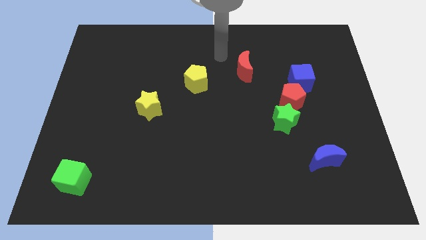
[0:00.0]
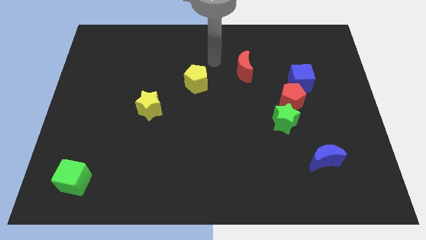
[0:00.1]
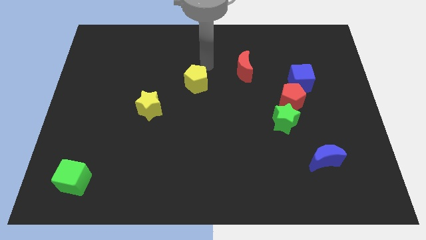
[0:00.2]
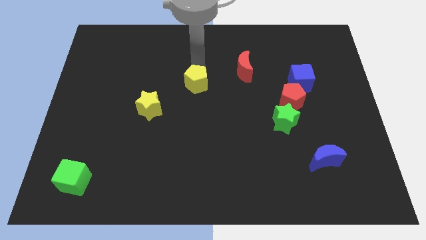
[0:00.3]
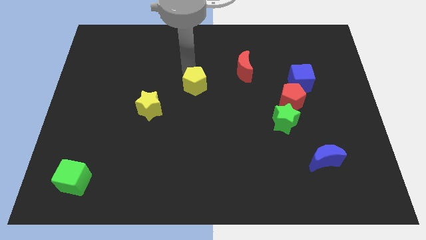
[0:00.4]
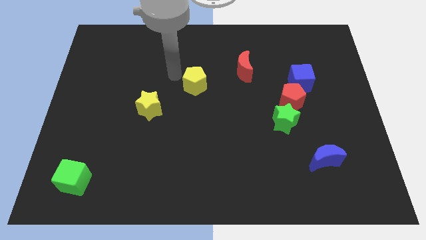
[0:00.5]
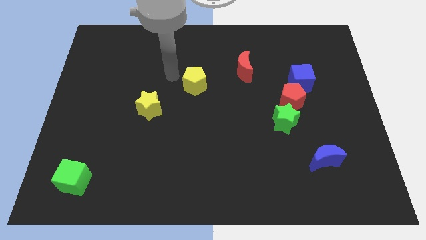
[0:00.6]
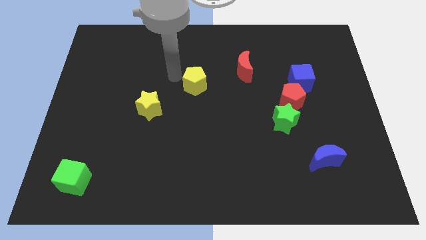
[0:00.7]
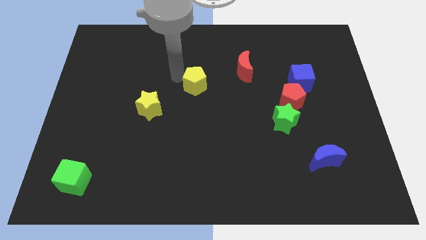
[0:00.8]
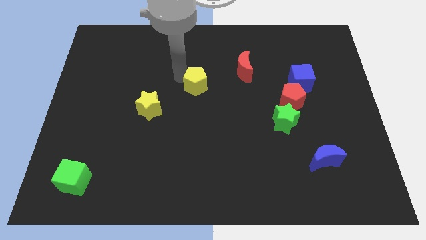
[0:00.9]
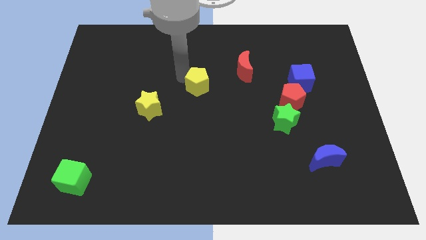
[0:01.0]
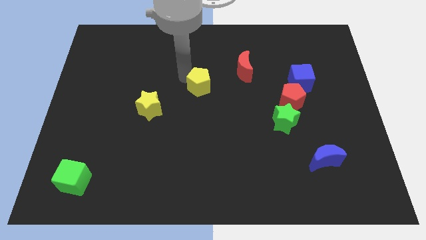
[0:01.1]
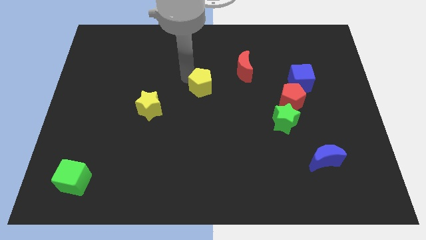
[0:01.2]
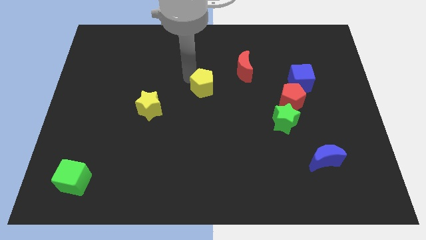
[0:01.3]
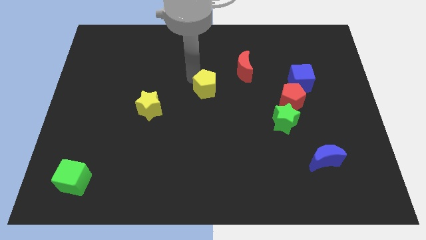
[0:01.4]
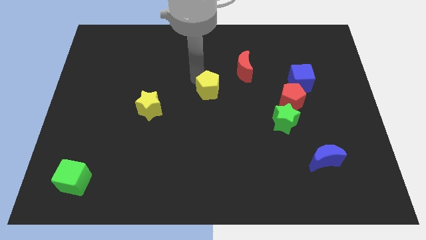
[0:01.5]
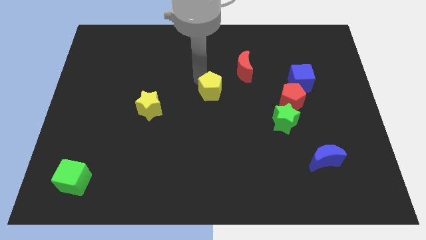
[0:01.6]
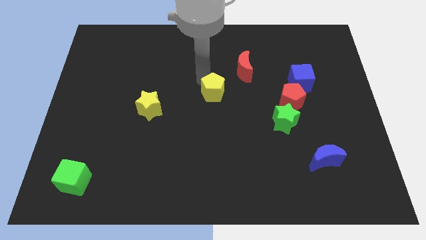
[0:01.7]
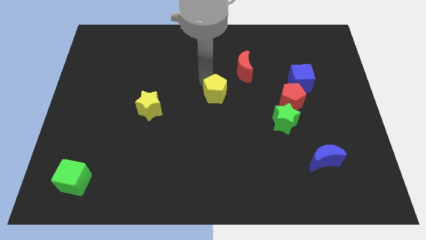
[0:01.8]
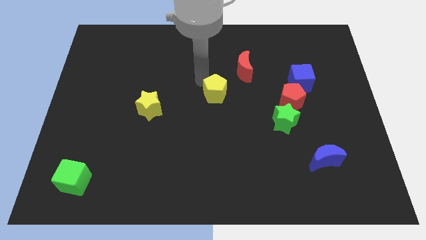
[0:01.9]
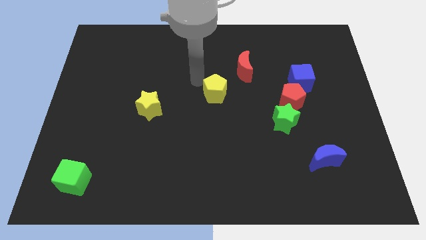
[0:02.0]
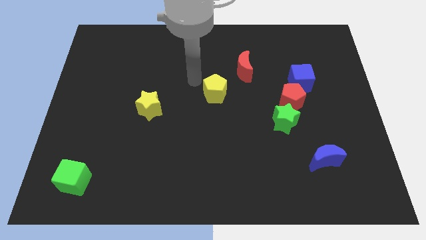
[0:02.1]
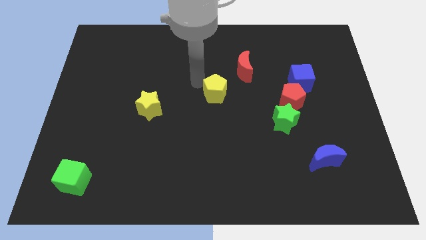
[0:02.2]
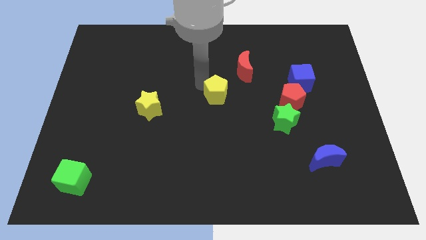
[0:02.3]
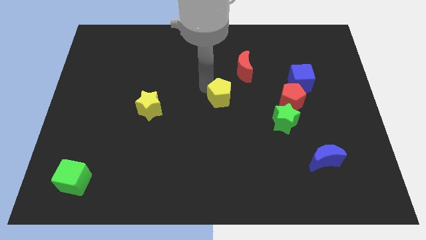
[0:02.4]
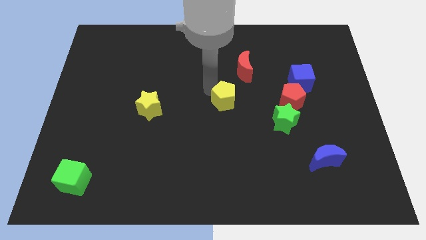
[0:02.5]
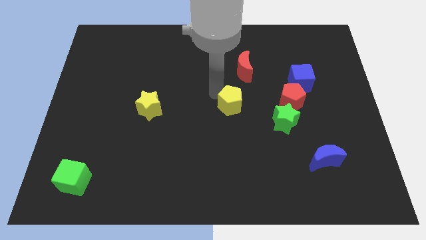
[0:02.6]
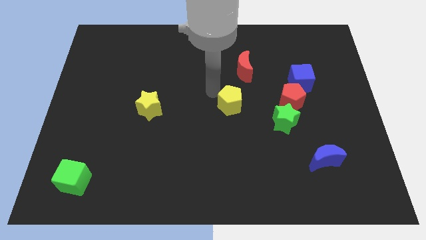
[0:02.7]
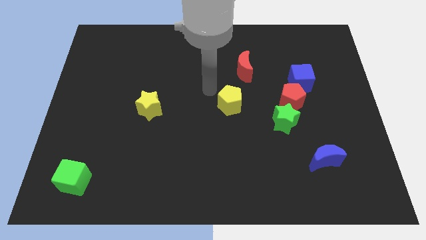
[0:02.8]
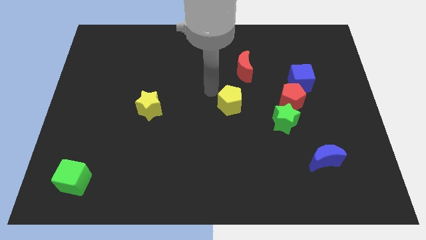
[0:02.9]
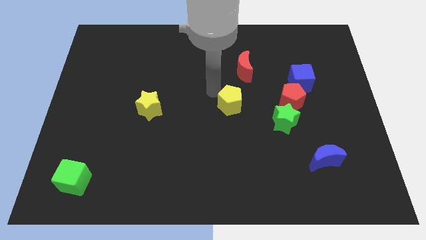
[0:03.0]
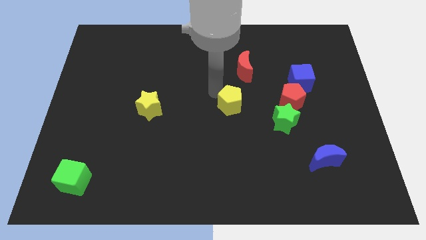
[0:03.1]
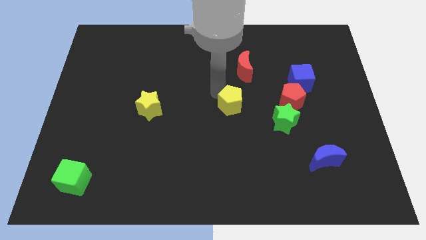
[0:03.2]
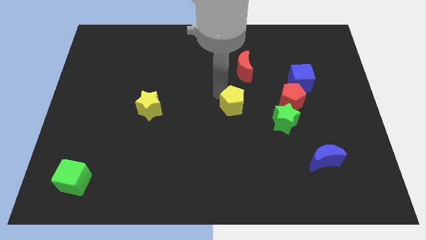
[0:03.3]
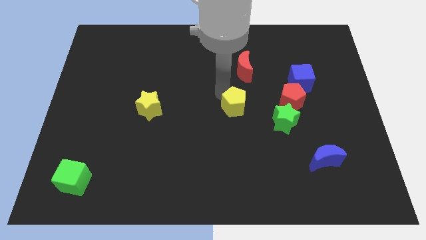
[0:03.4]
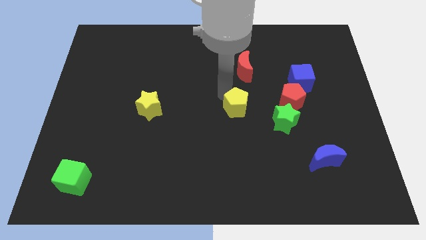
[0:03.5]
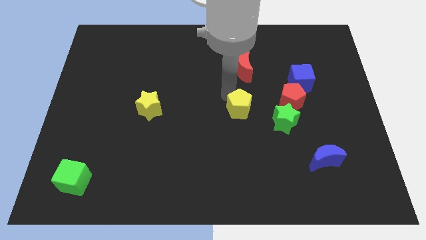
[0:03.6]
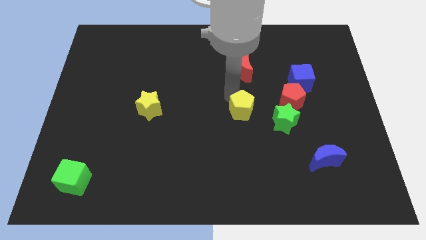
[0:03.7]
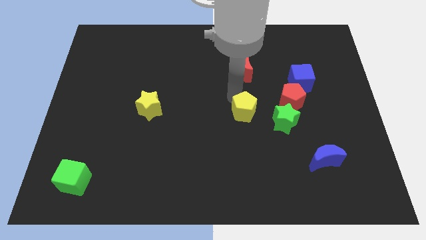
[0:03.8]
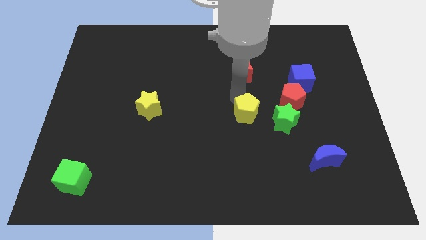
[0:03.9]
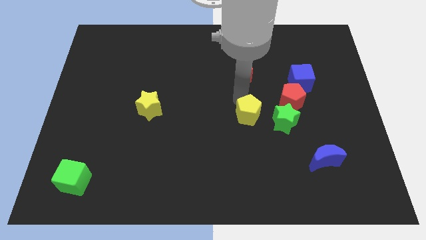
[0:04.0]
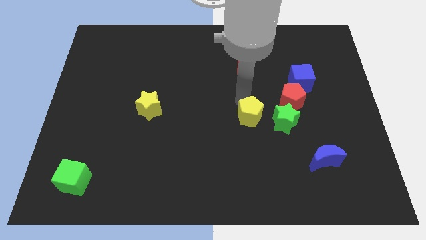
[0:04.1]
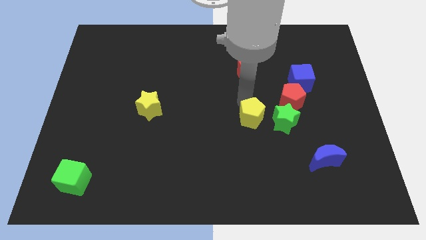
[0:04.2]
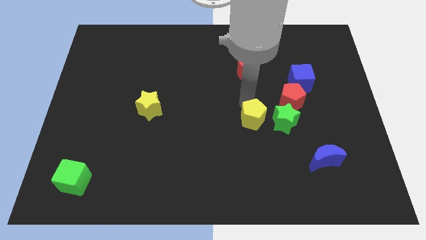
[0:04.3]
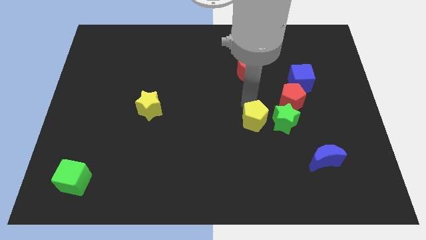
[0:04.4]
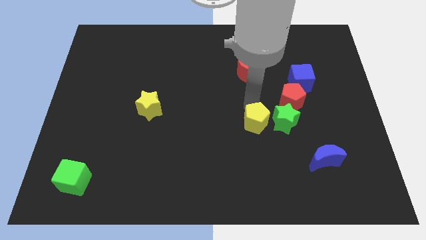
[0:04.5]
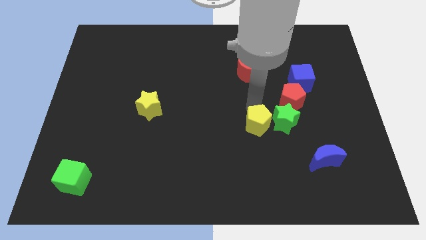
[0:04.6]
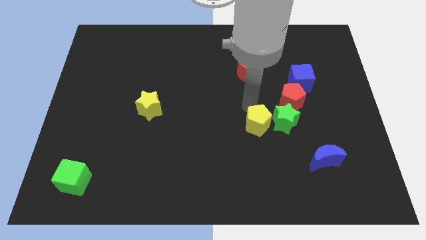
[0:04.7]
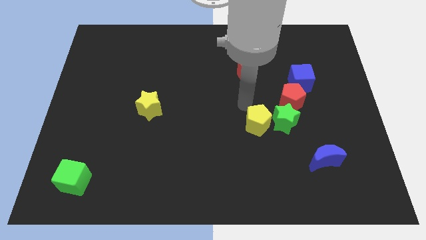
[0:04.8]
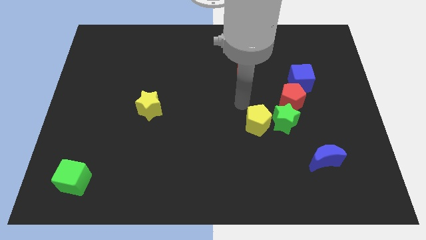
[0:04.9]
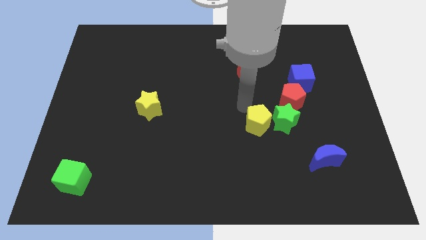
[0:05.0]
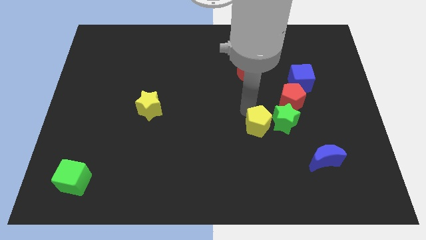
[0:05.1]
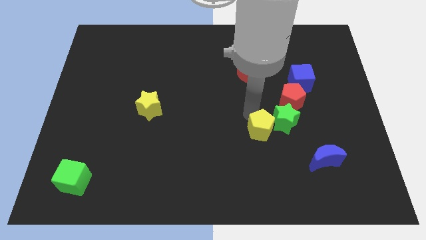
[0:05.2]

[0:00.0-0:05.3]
move the yellow pentagon down and then to the right

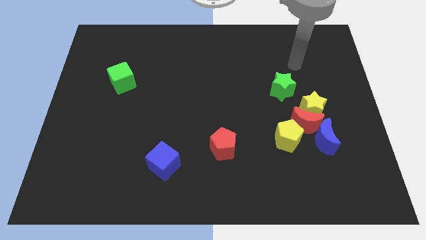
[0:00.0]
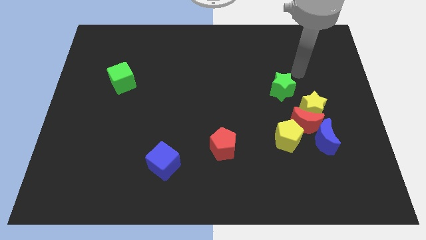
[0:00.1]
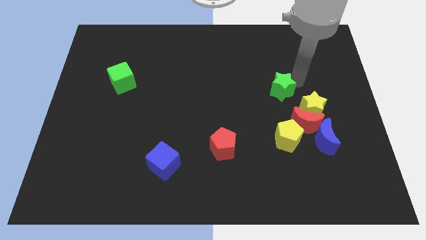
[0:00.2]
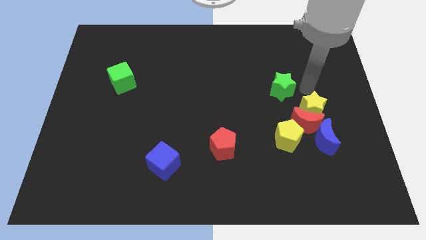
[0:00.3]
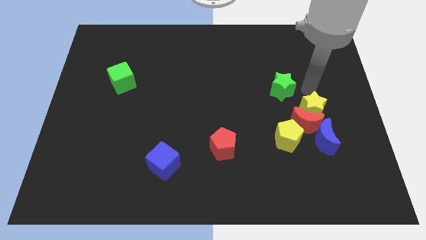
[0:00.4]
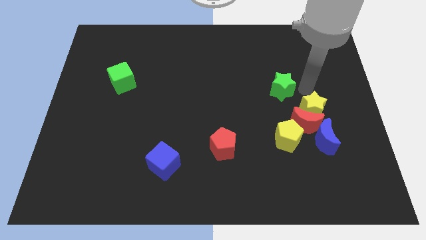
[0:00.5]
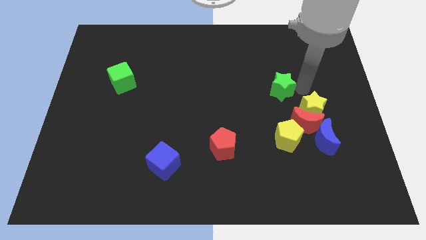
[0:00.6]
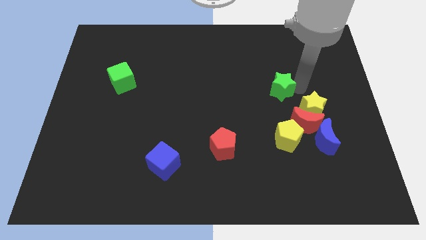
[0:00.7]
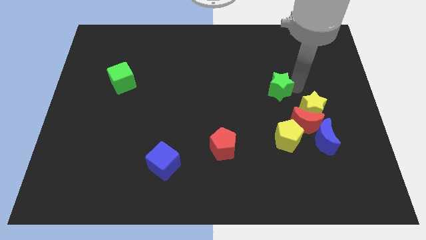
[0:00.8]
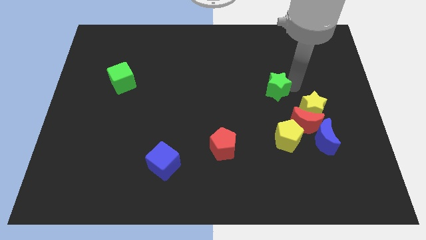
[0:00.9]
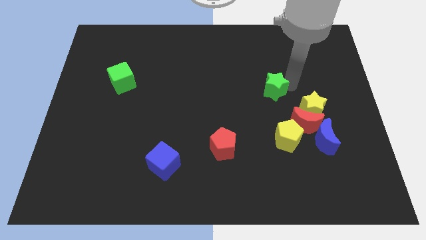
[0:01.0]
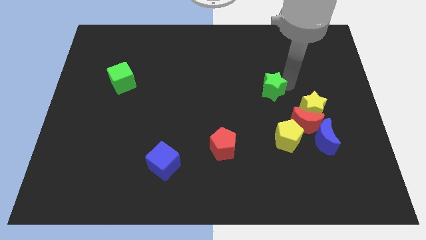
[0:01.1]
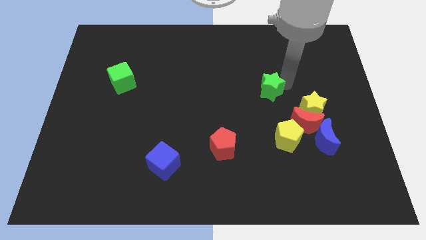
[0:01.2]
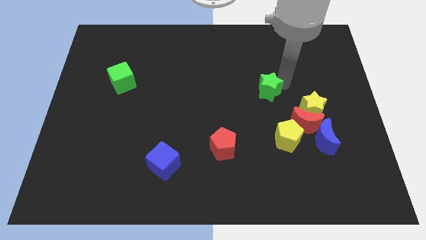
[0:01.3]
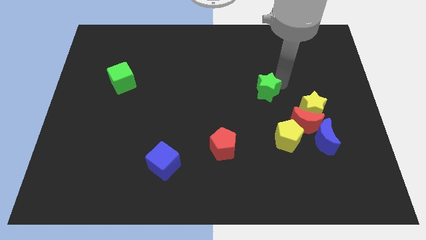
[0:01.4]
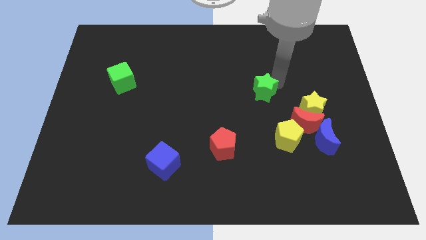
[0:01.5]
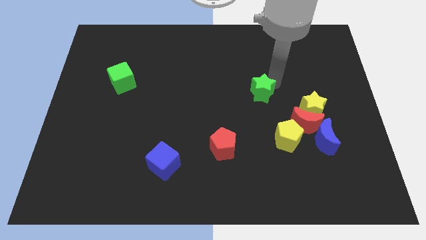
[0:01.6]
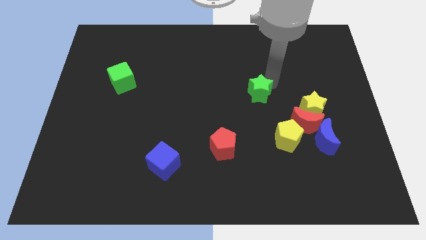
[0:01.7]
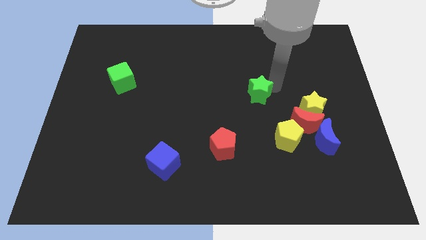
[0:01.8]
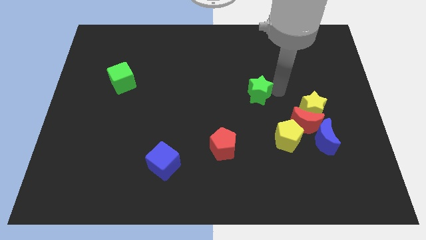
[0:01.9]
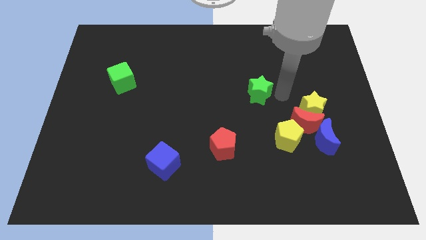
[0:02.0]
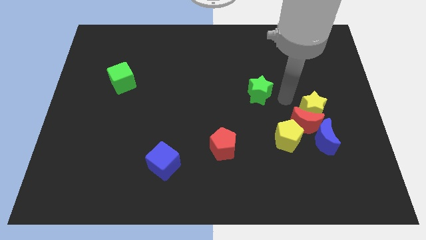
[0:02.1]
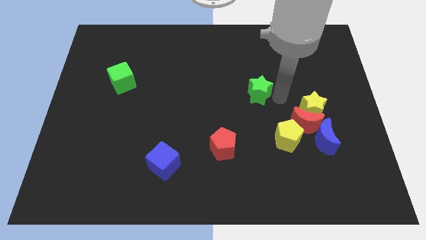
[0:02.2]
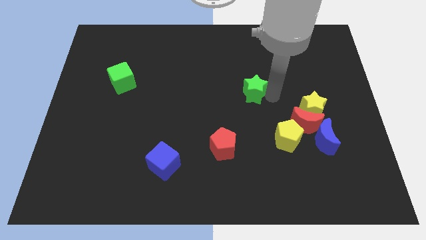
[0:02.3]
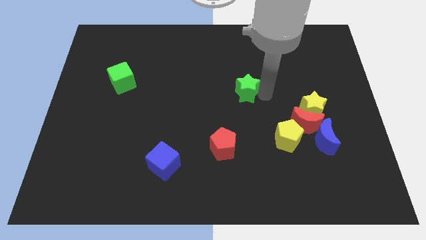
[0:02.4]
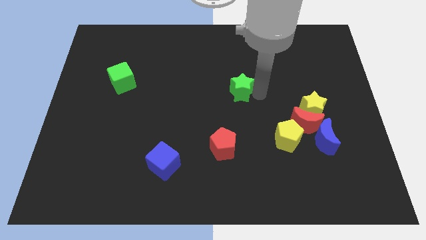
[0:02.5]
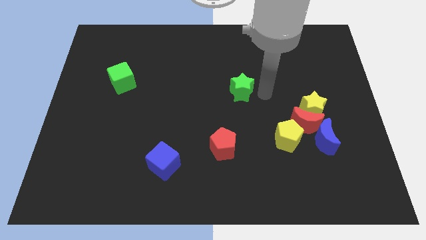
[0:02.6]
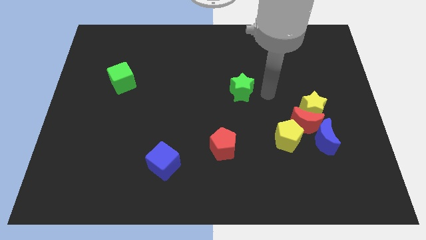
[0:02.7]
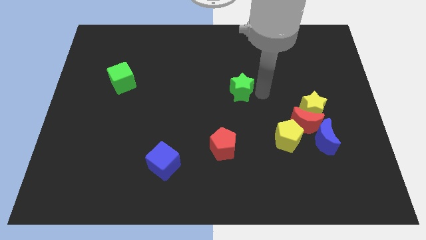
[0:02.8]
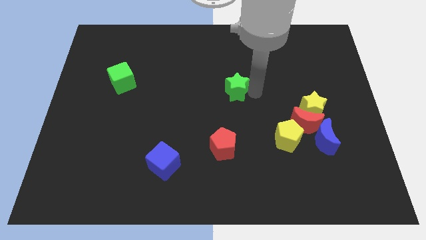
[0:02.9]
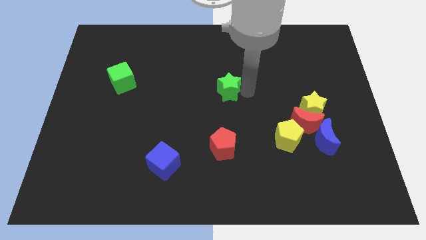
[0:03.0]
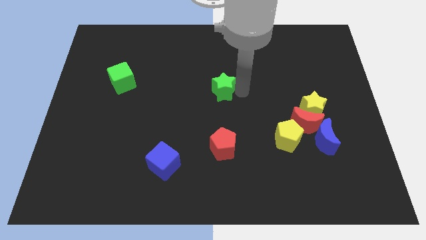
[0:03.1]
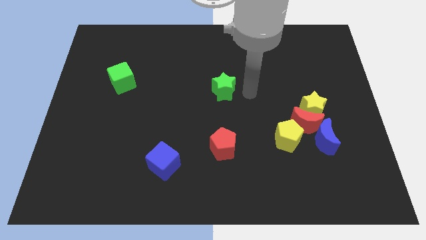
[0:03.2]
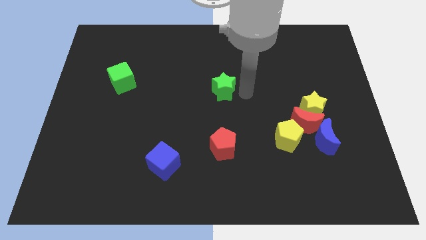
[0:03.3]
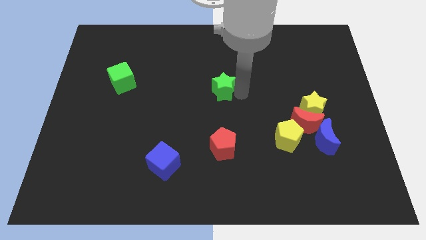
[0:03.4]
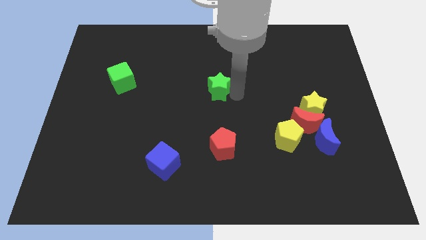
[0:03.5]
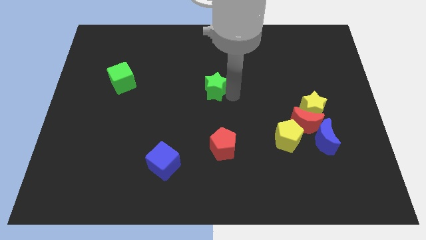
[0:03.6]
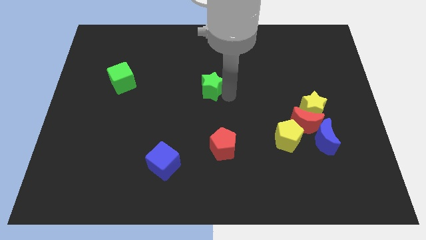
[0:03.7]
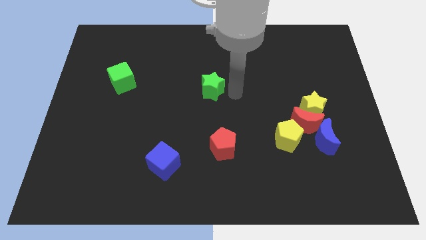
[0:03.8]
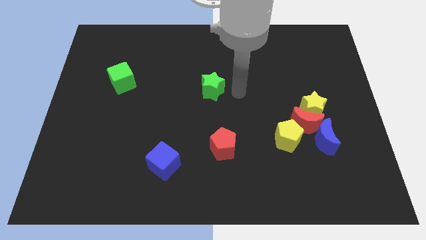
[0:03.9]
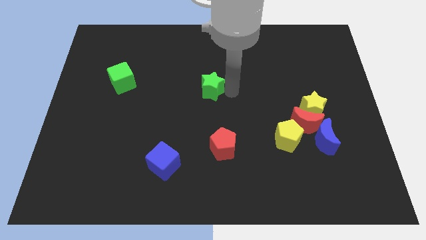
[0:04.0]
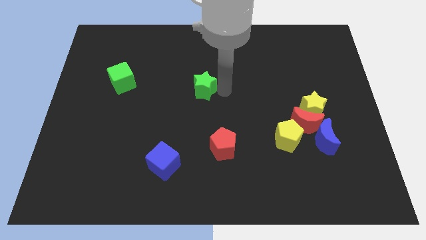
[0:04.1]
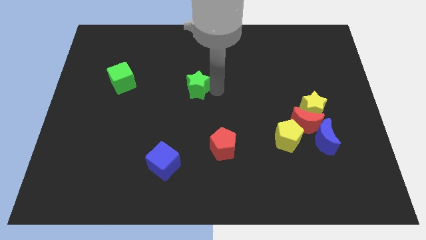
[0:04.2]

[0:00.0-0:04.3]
slide the green star left
